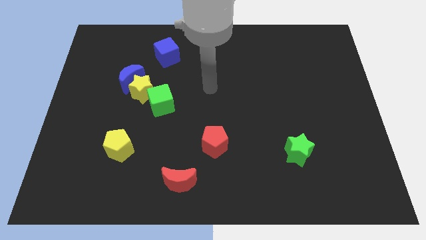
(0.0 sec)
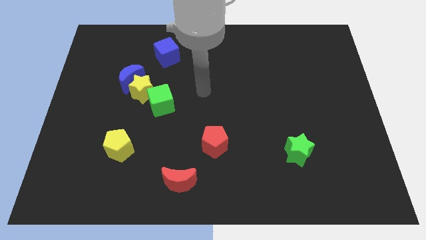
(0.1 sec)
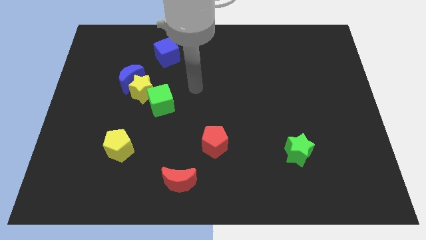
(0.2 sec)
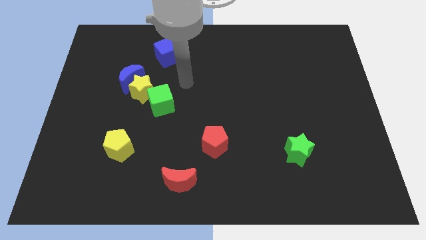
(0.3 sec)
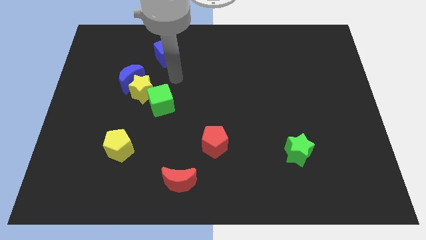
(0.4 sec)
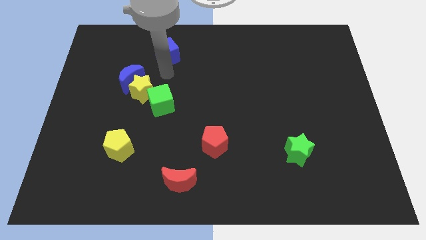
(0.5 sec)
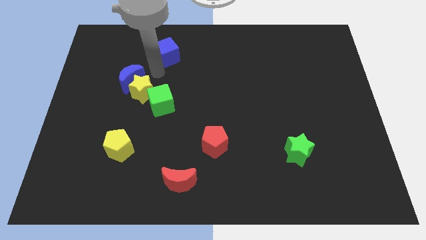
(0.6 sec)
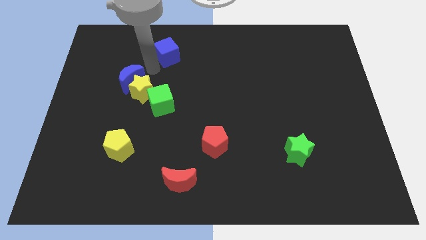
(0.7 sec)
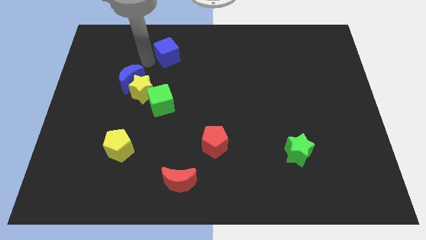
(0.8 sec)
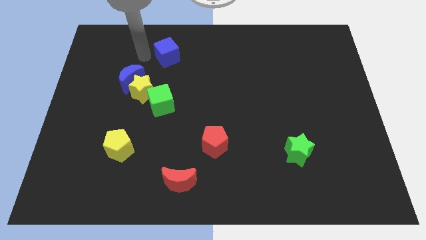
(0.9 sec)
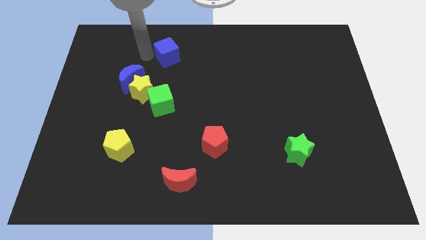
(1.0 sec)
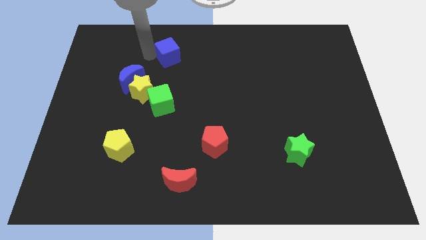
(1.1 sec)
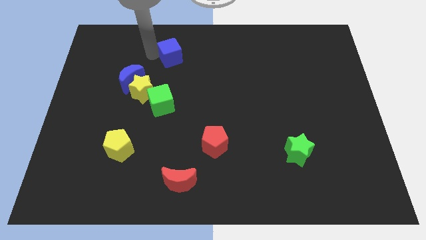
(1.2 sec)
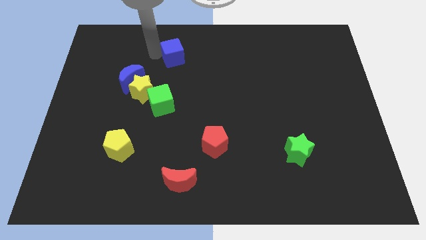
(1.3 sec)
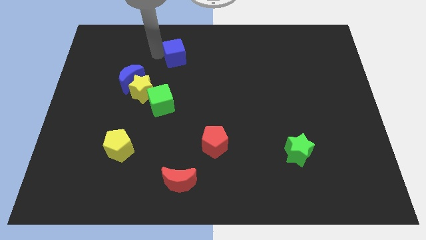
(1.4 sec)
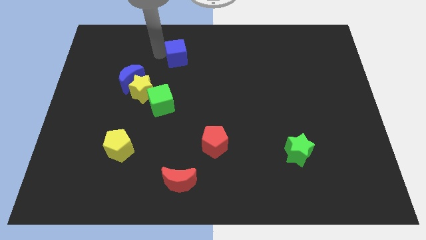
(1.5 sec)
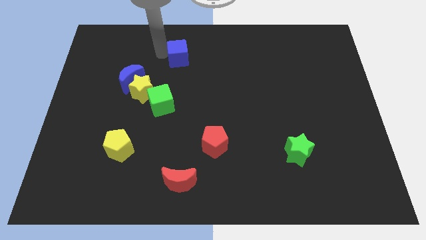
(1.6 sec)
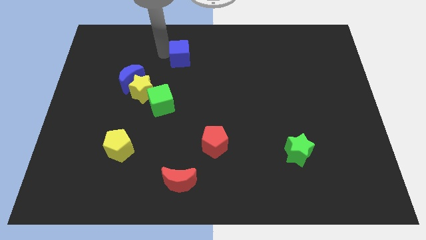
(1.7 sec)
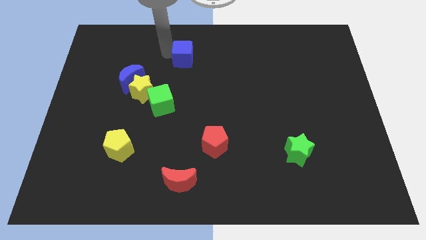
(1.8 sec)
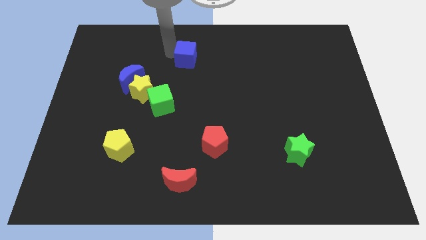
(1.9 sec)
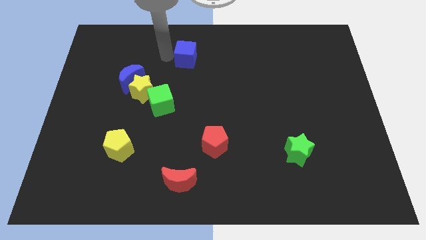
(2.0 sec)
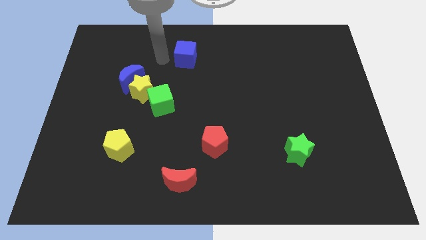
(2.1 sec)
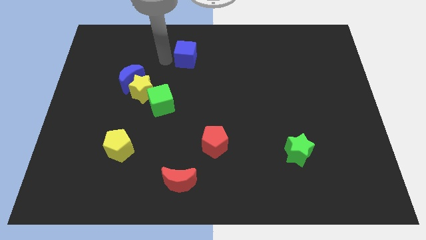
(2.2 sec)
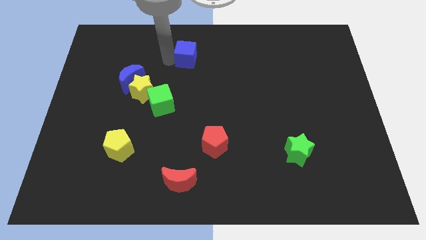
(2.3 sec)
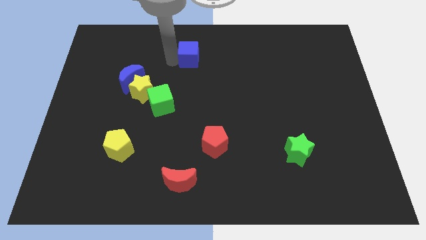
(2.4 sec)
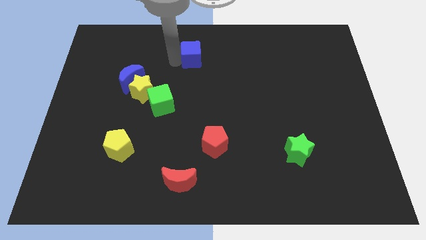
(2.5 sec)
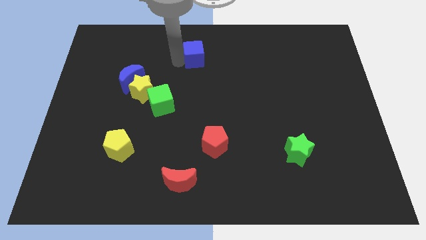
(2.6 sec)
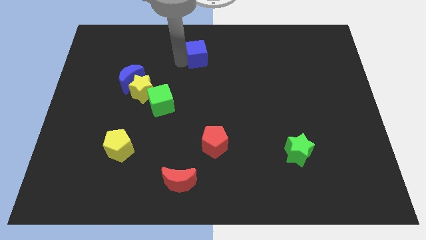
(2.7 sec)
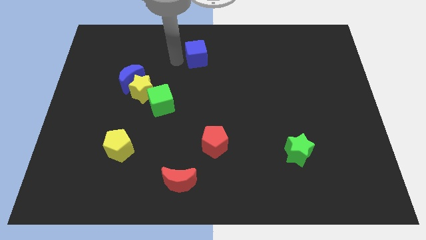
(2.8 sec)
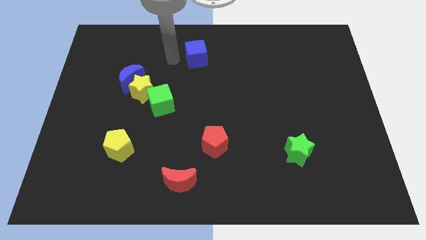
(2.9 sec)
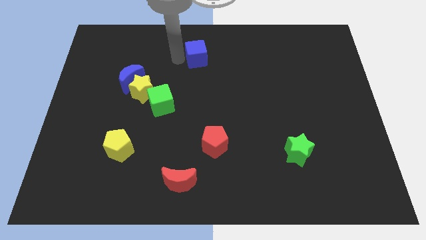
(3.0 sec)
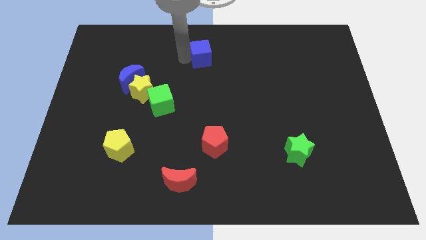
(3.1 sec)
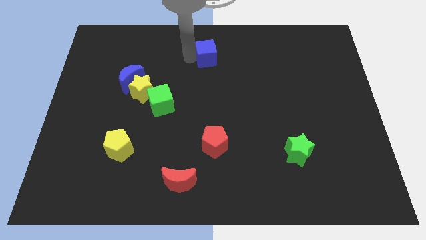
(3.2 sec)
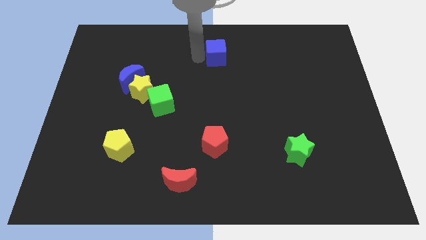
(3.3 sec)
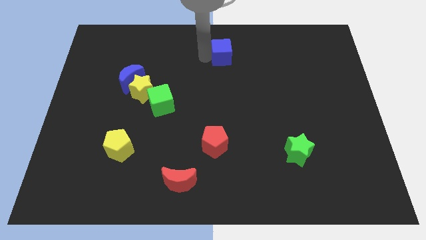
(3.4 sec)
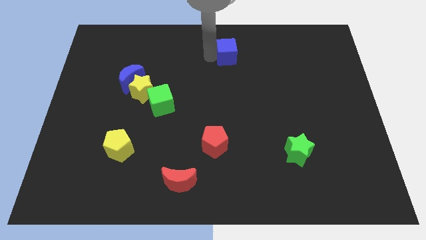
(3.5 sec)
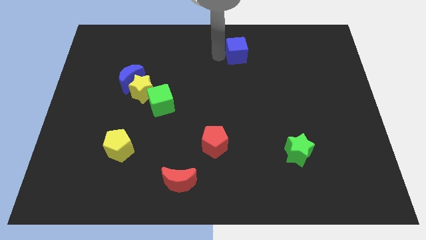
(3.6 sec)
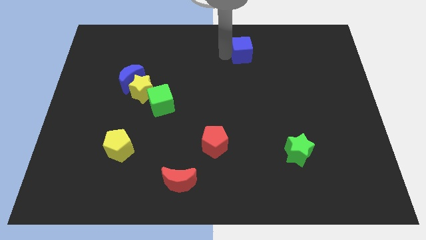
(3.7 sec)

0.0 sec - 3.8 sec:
push the blue cube right

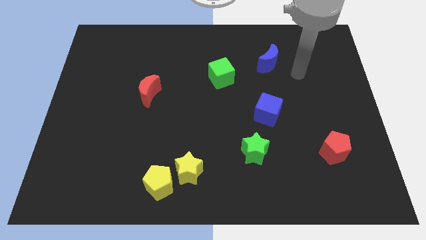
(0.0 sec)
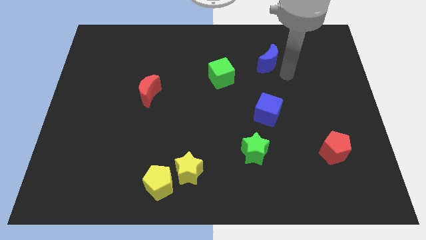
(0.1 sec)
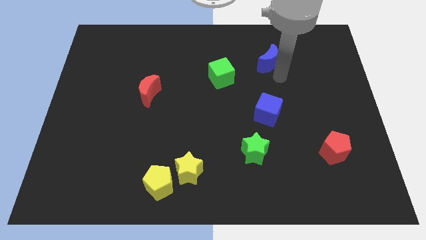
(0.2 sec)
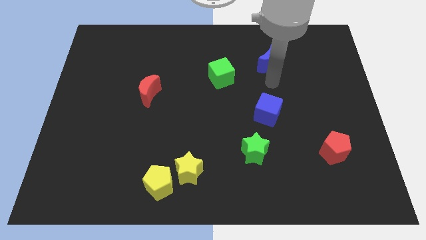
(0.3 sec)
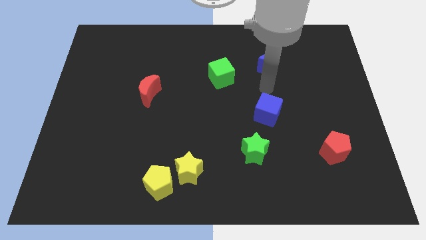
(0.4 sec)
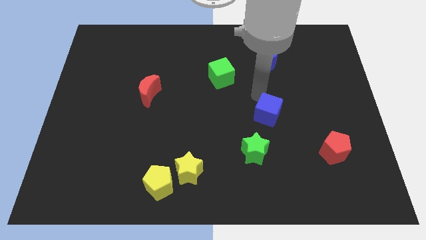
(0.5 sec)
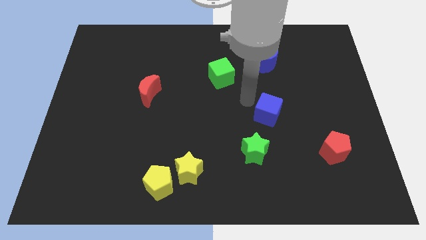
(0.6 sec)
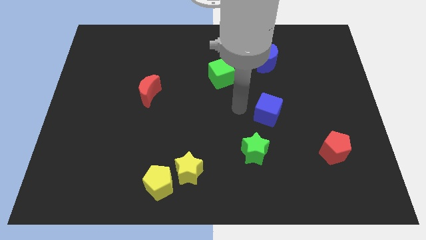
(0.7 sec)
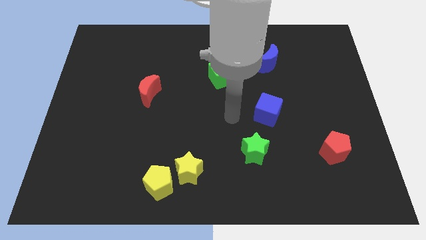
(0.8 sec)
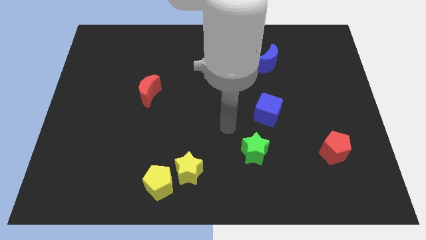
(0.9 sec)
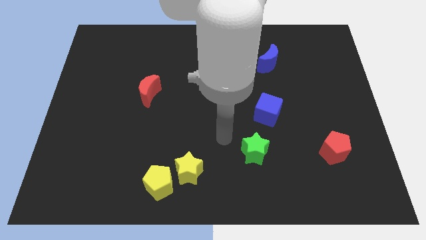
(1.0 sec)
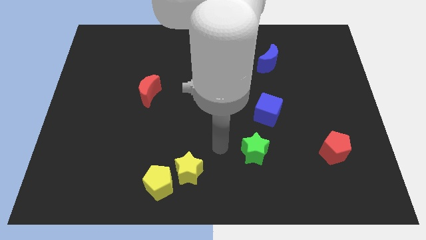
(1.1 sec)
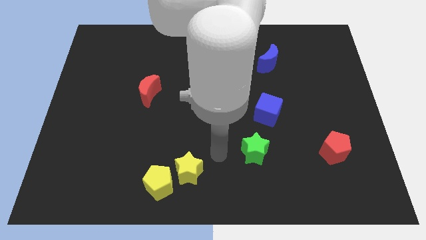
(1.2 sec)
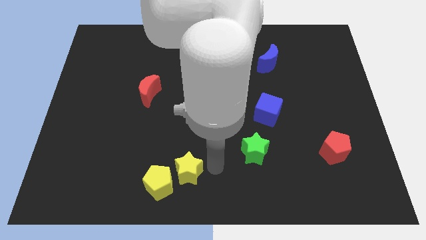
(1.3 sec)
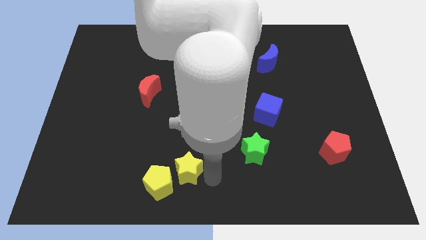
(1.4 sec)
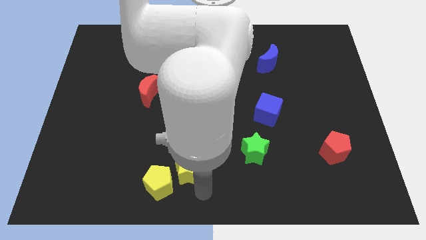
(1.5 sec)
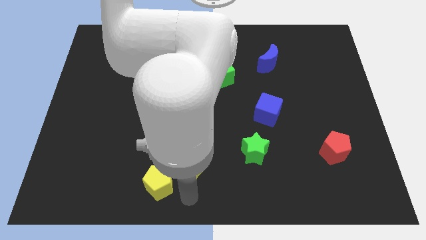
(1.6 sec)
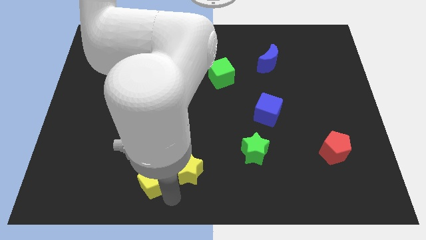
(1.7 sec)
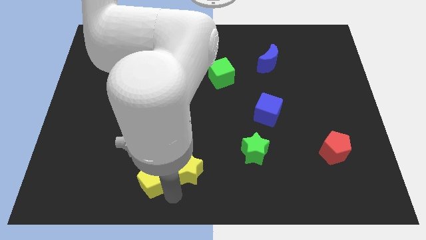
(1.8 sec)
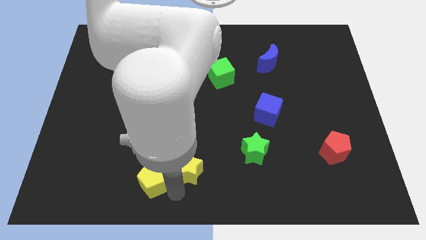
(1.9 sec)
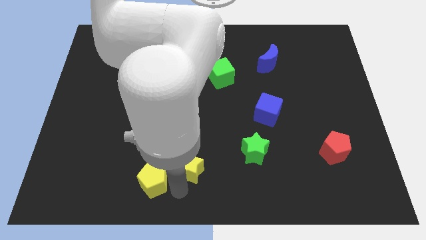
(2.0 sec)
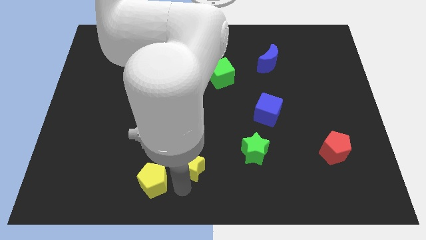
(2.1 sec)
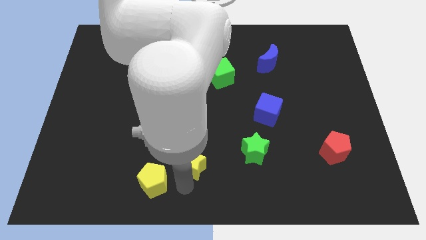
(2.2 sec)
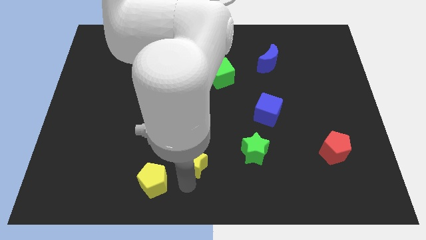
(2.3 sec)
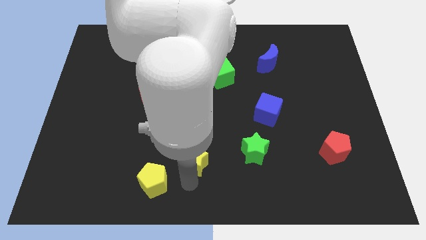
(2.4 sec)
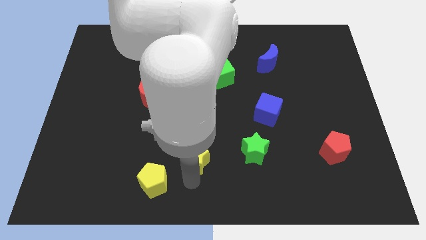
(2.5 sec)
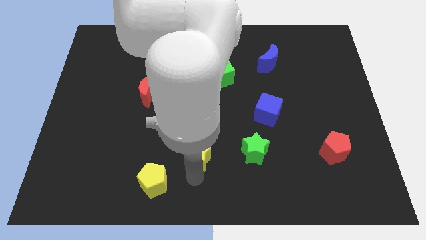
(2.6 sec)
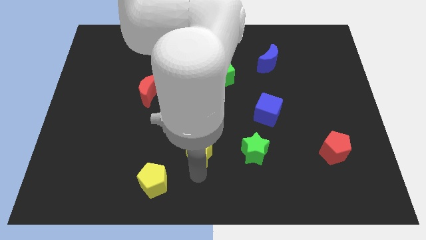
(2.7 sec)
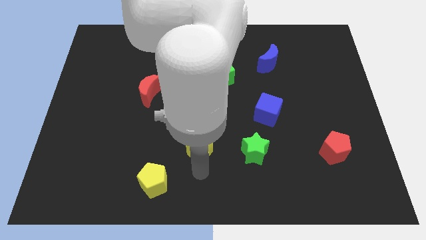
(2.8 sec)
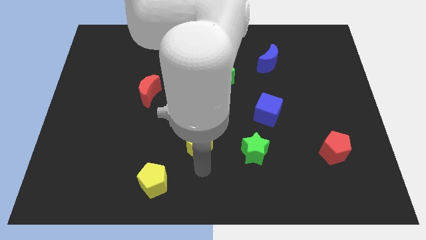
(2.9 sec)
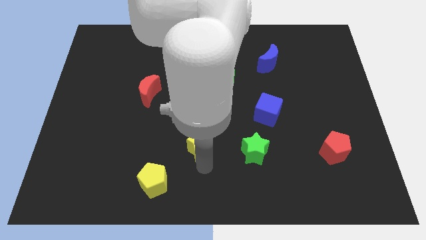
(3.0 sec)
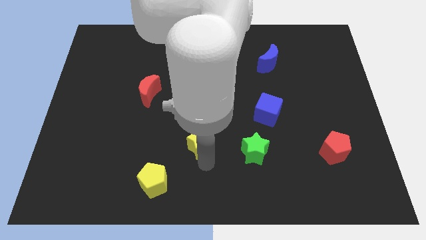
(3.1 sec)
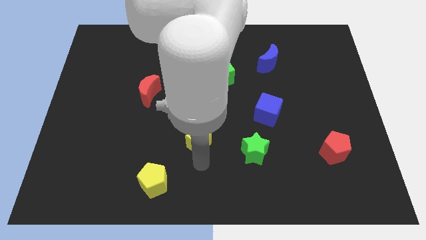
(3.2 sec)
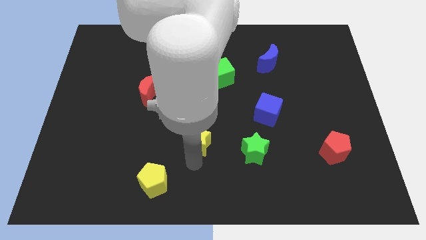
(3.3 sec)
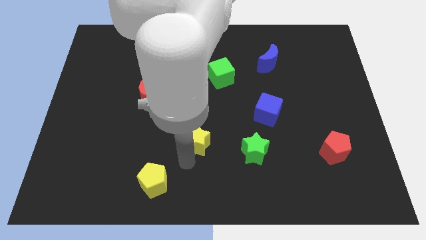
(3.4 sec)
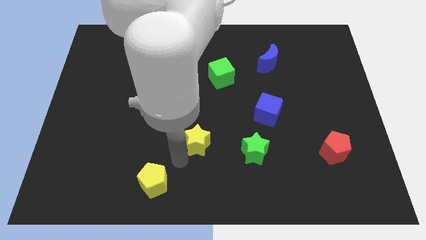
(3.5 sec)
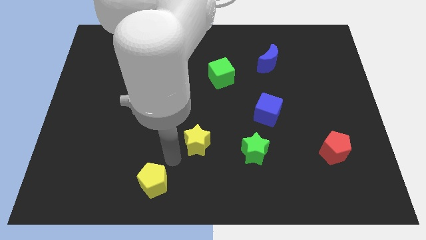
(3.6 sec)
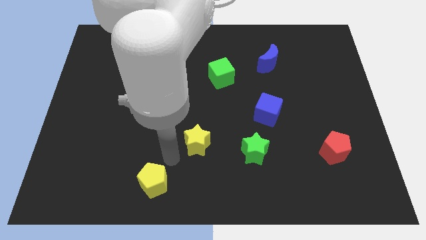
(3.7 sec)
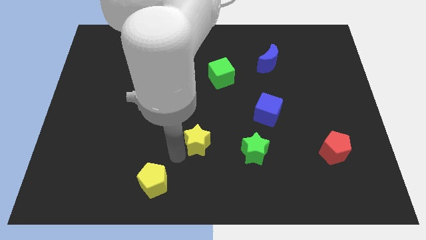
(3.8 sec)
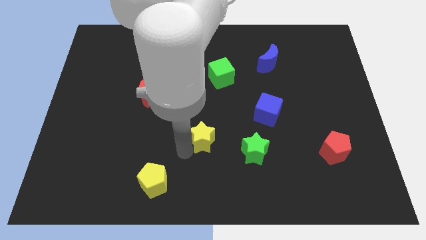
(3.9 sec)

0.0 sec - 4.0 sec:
move the yellow star diagonally up and right a little
